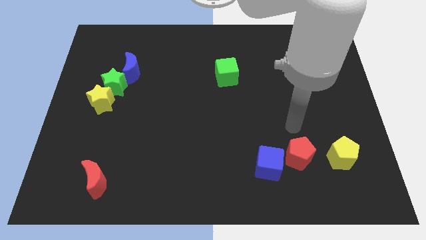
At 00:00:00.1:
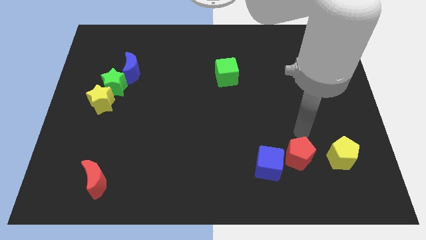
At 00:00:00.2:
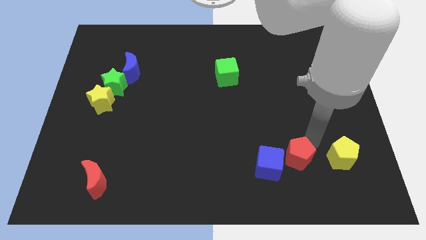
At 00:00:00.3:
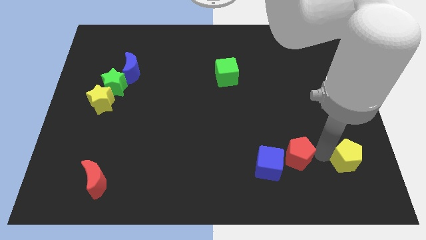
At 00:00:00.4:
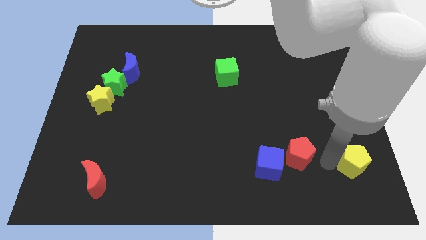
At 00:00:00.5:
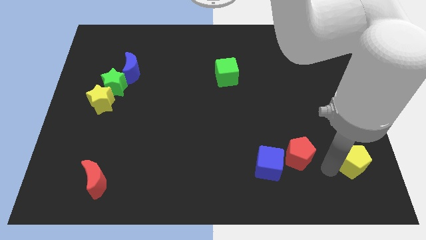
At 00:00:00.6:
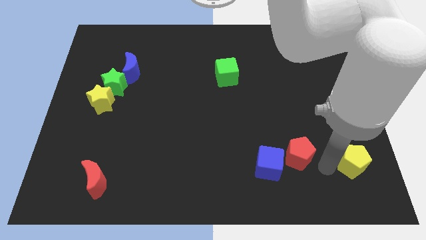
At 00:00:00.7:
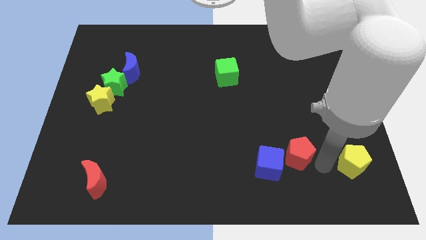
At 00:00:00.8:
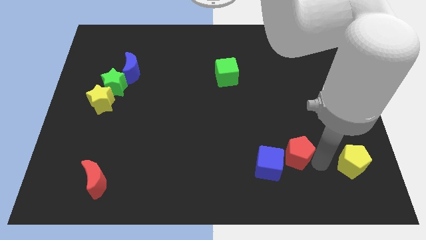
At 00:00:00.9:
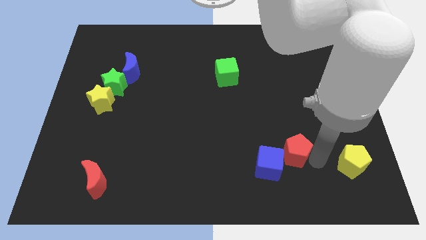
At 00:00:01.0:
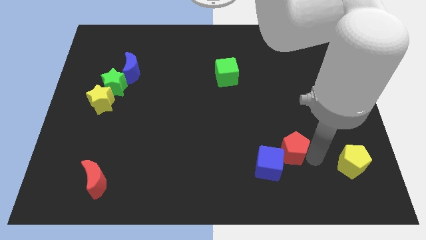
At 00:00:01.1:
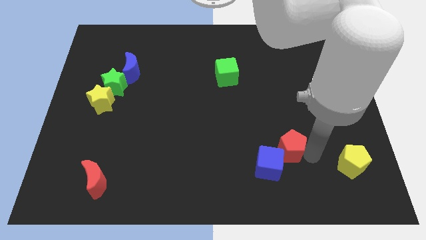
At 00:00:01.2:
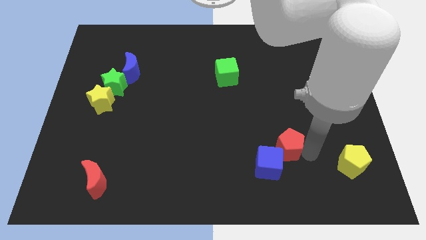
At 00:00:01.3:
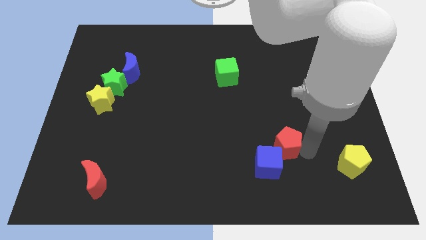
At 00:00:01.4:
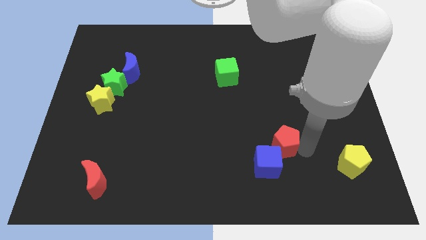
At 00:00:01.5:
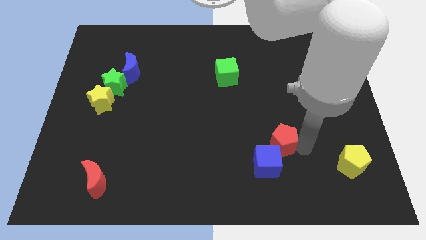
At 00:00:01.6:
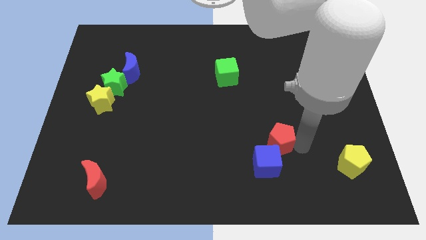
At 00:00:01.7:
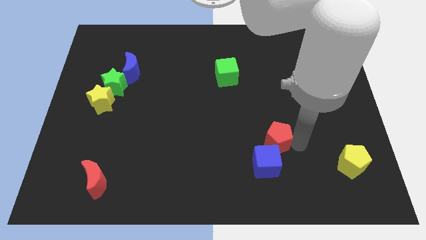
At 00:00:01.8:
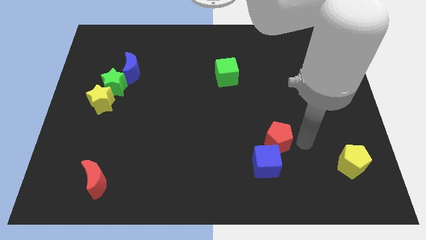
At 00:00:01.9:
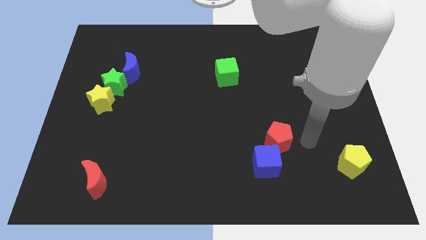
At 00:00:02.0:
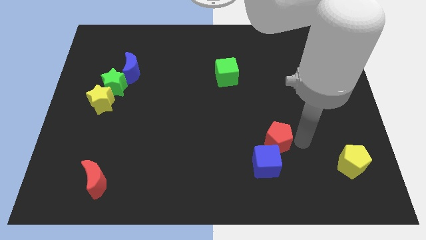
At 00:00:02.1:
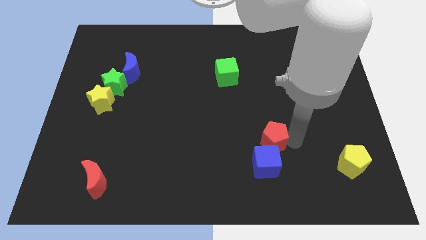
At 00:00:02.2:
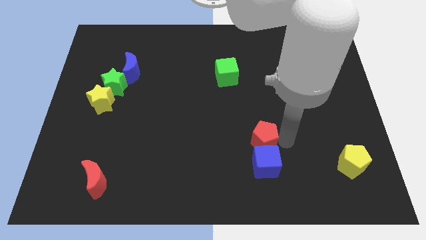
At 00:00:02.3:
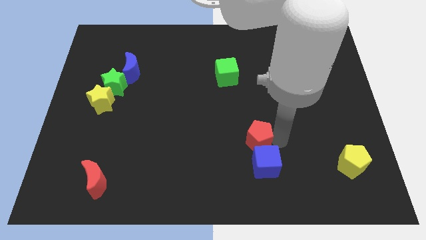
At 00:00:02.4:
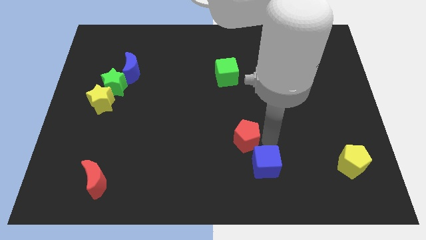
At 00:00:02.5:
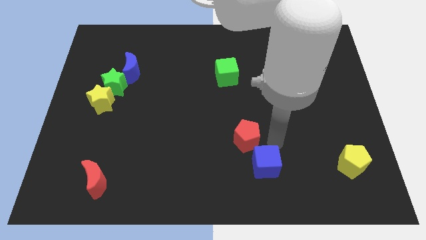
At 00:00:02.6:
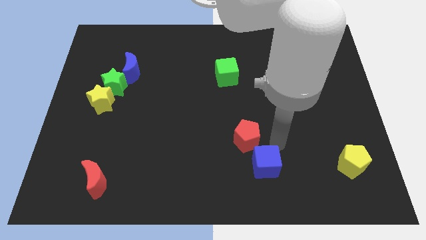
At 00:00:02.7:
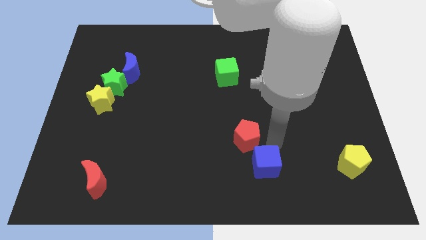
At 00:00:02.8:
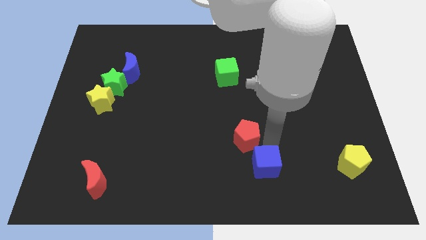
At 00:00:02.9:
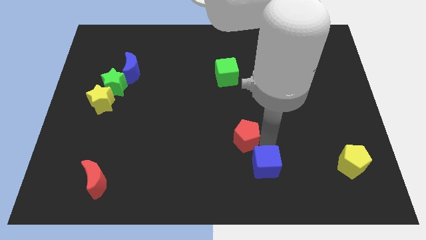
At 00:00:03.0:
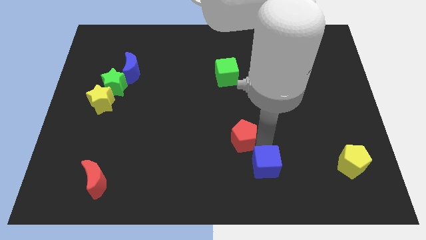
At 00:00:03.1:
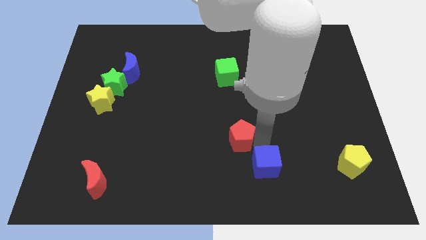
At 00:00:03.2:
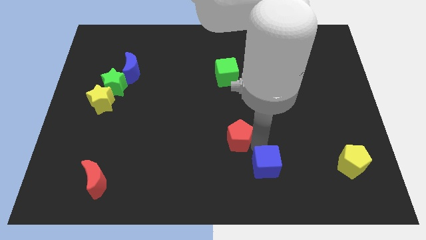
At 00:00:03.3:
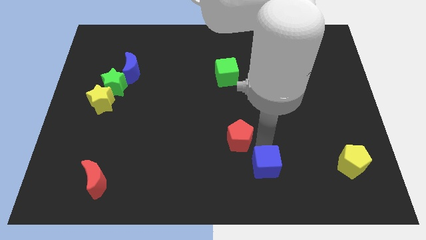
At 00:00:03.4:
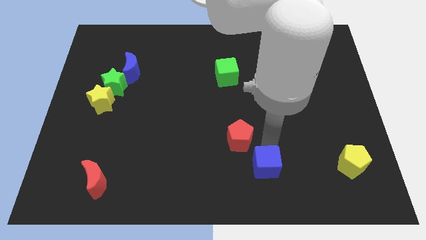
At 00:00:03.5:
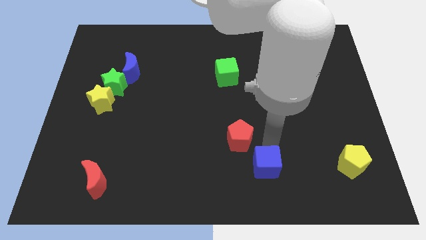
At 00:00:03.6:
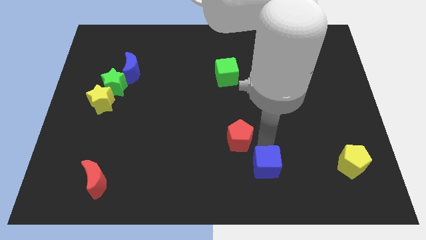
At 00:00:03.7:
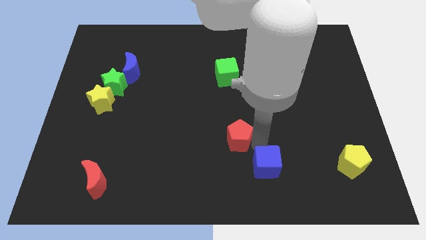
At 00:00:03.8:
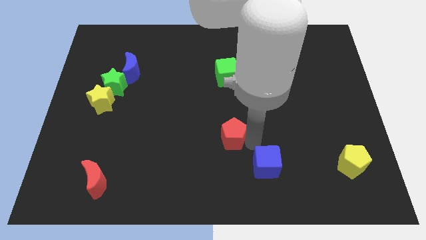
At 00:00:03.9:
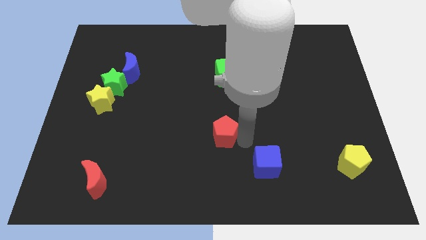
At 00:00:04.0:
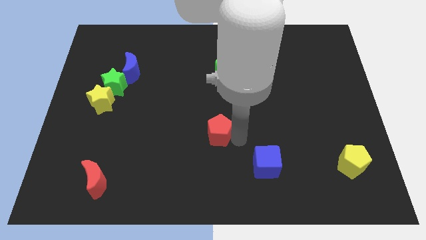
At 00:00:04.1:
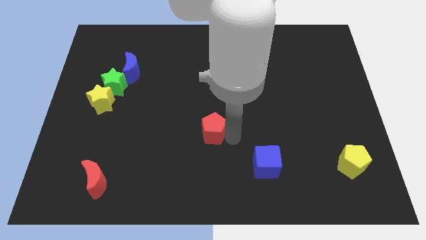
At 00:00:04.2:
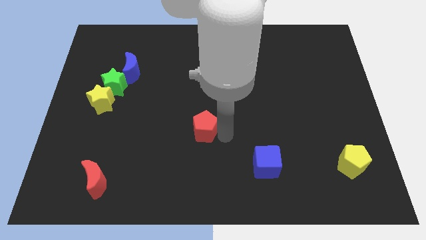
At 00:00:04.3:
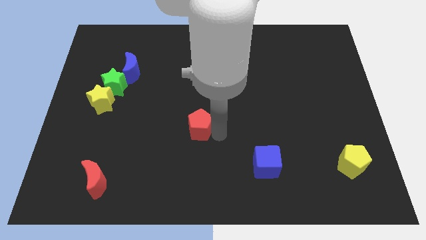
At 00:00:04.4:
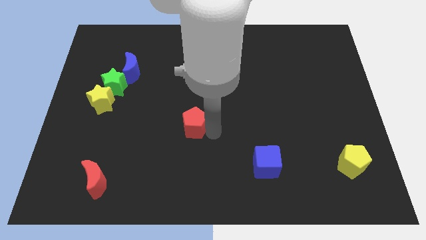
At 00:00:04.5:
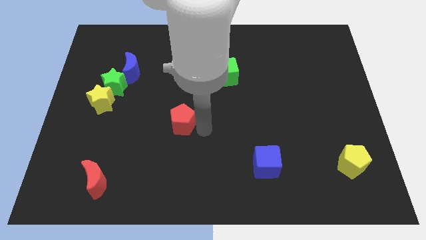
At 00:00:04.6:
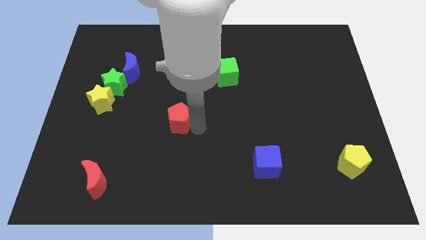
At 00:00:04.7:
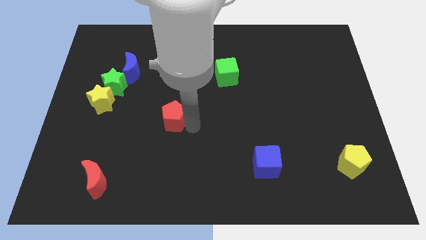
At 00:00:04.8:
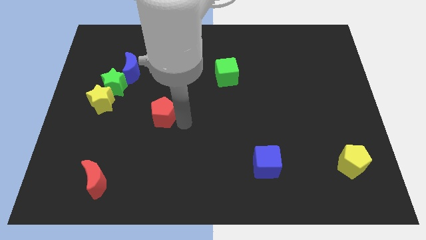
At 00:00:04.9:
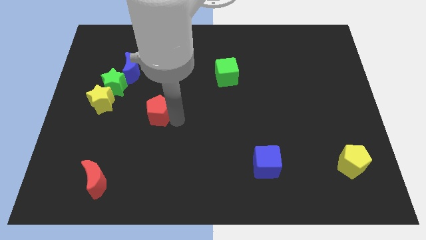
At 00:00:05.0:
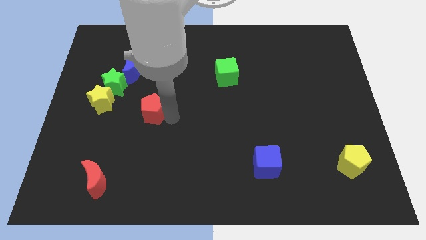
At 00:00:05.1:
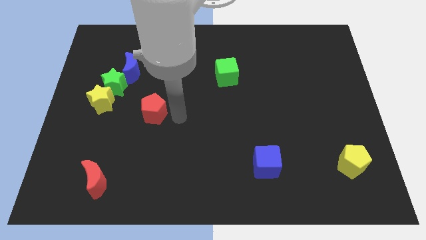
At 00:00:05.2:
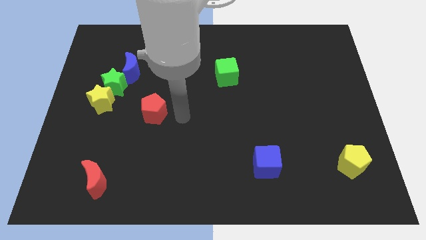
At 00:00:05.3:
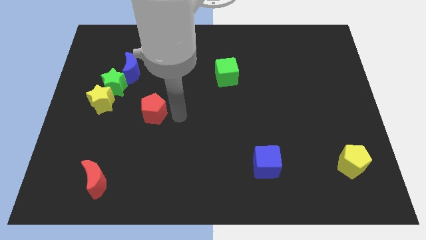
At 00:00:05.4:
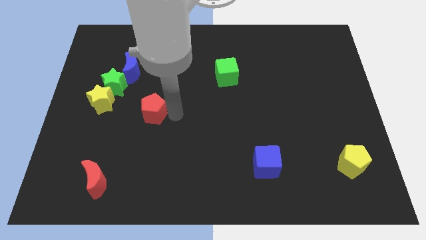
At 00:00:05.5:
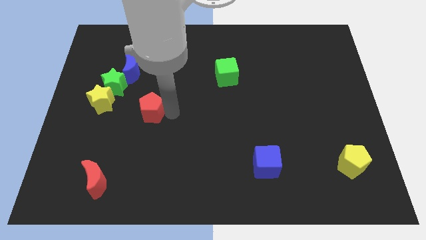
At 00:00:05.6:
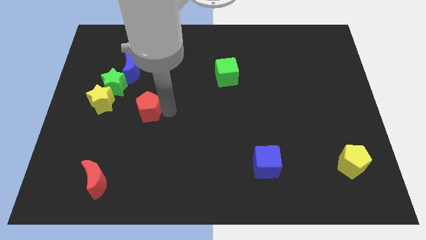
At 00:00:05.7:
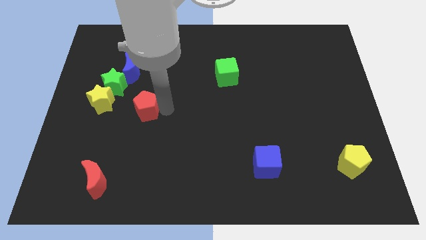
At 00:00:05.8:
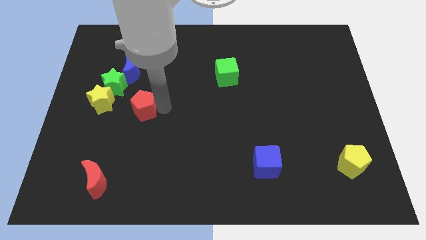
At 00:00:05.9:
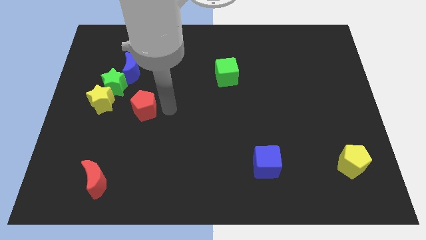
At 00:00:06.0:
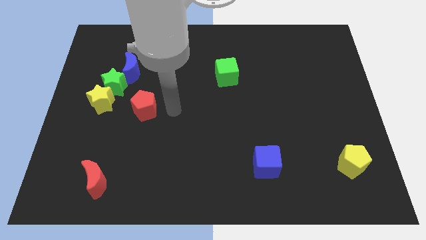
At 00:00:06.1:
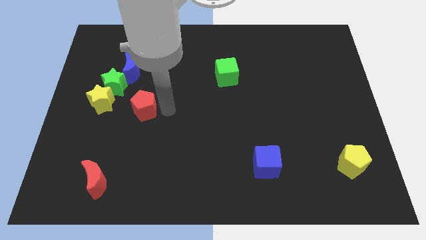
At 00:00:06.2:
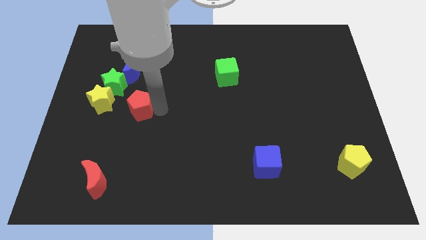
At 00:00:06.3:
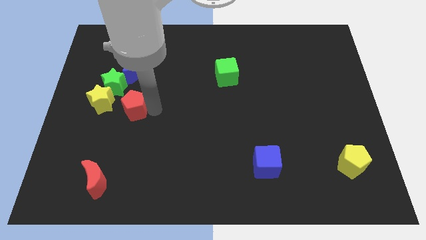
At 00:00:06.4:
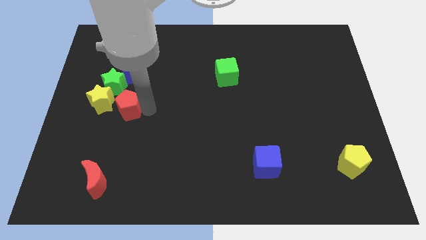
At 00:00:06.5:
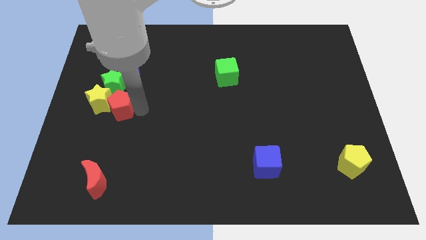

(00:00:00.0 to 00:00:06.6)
put the red pentagon towards the yellow star

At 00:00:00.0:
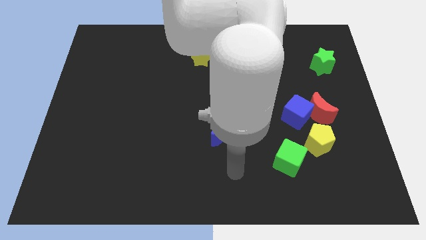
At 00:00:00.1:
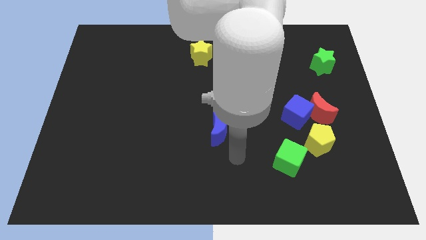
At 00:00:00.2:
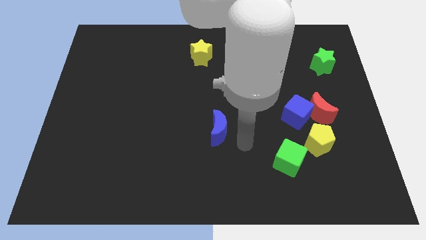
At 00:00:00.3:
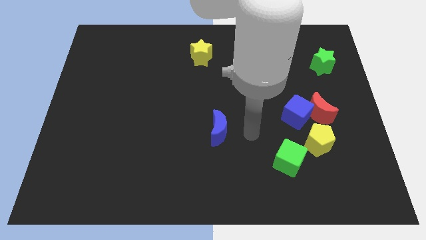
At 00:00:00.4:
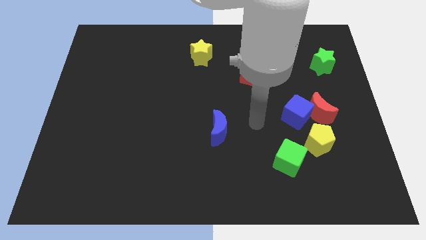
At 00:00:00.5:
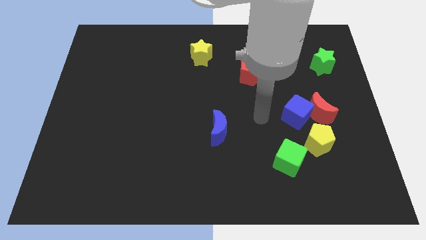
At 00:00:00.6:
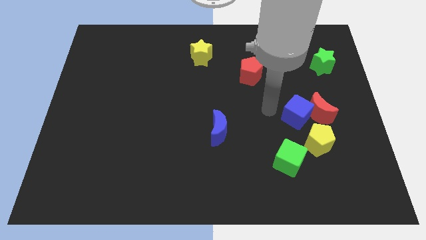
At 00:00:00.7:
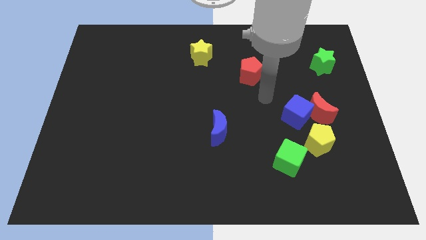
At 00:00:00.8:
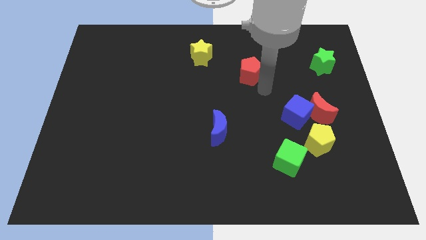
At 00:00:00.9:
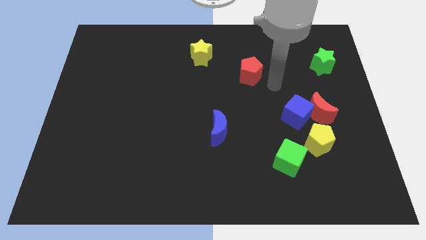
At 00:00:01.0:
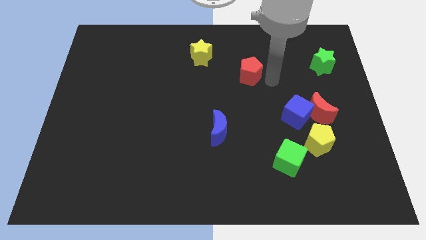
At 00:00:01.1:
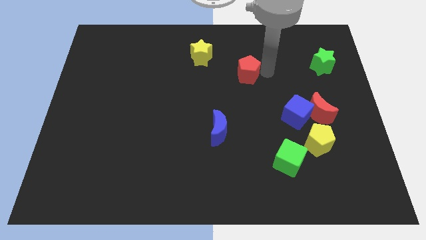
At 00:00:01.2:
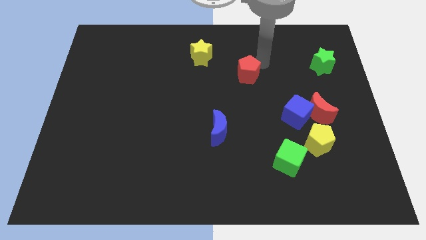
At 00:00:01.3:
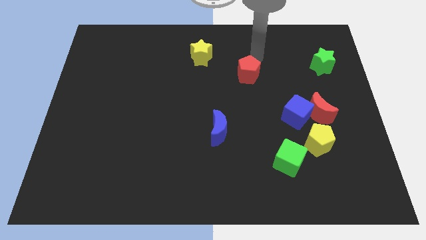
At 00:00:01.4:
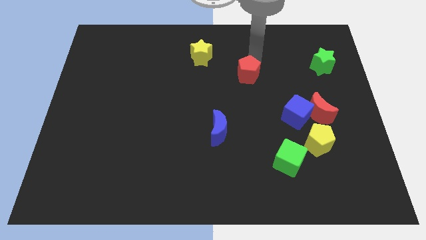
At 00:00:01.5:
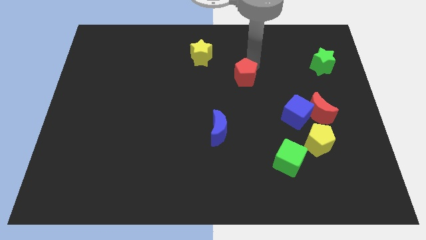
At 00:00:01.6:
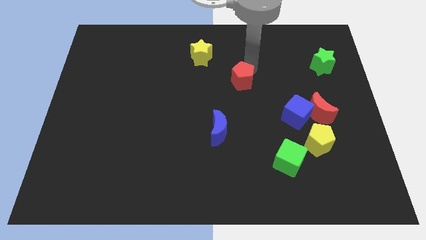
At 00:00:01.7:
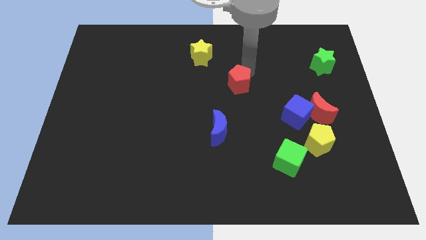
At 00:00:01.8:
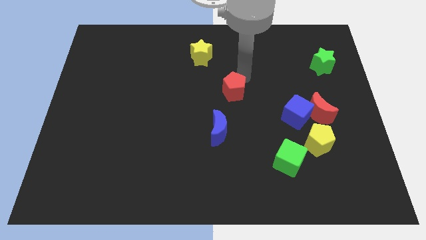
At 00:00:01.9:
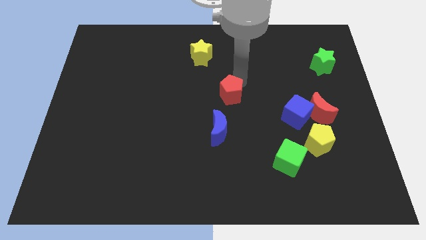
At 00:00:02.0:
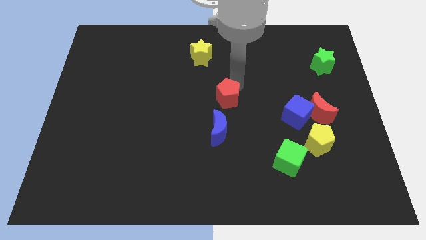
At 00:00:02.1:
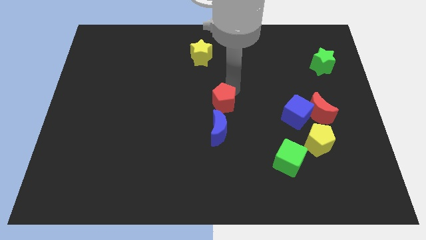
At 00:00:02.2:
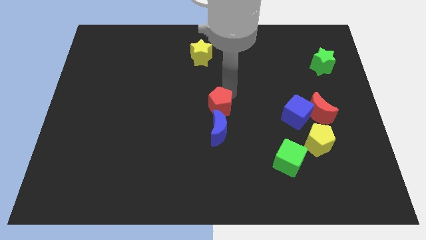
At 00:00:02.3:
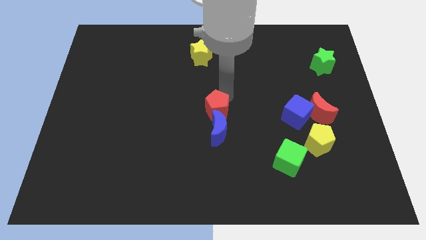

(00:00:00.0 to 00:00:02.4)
push the red pentagon next to the blue moon
